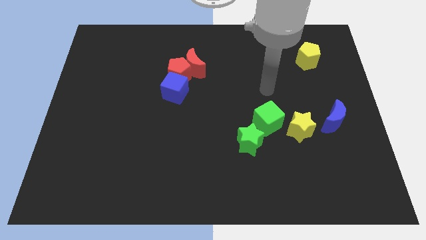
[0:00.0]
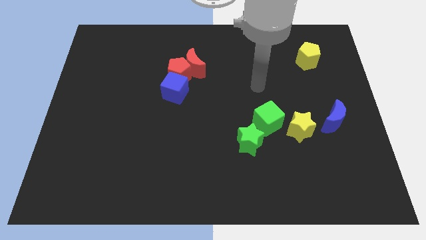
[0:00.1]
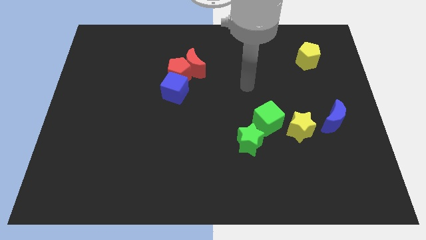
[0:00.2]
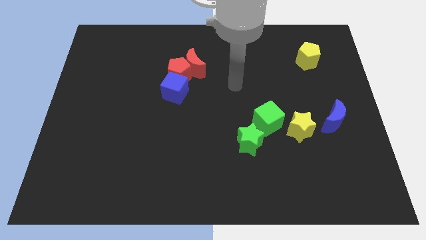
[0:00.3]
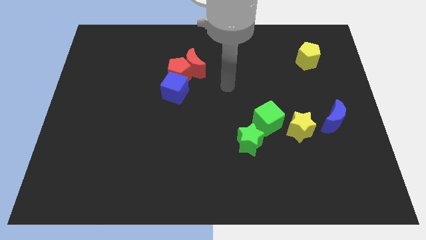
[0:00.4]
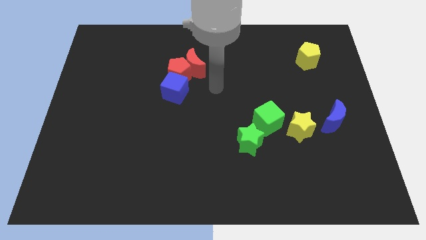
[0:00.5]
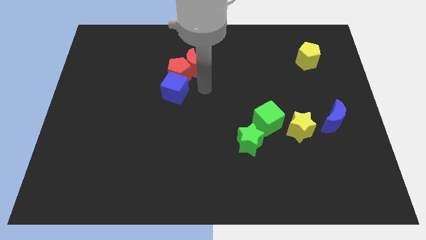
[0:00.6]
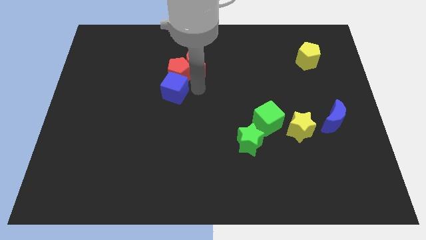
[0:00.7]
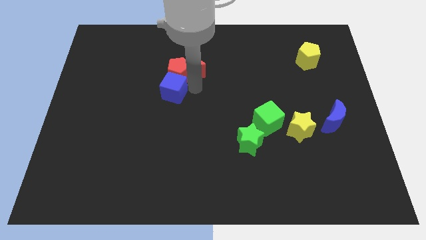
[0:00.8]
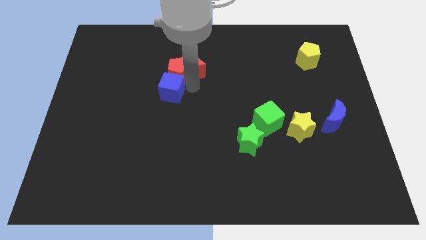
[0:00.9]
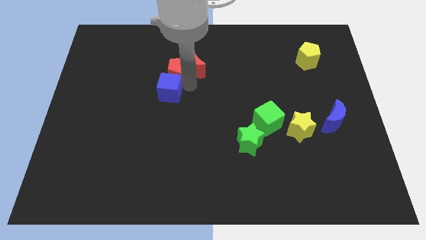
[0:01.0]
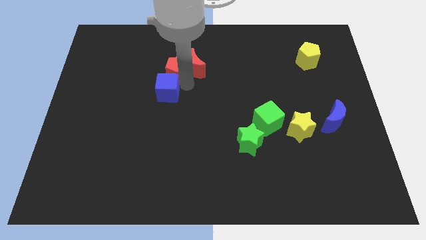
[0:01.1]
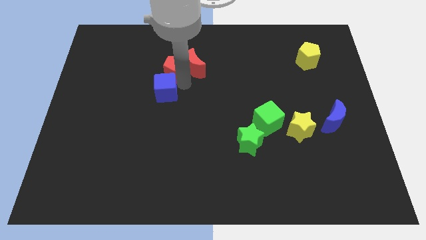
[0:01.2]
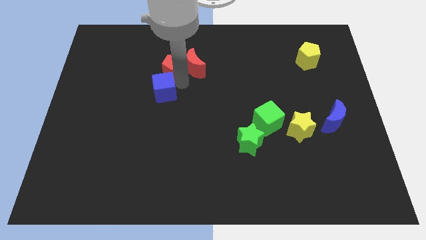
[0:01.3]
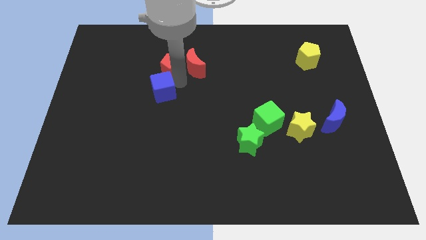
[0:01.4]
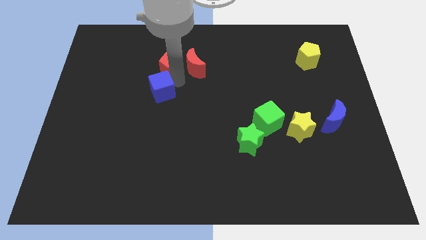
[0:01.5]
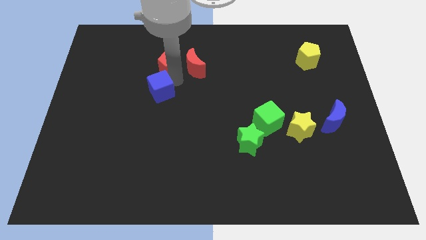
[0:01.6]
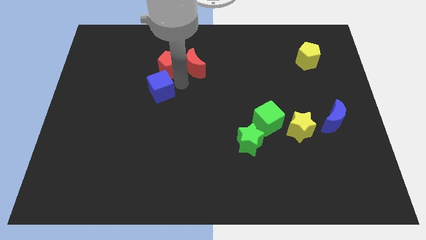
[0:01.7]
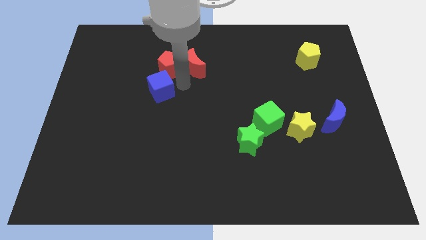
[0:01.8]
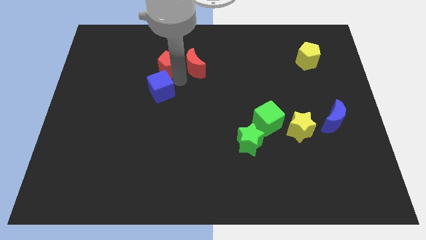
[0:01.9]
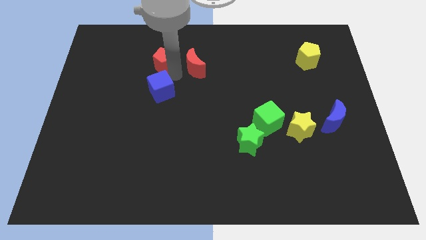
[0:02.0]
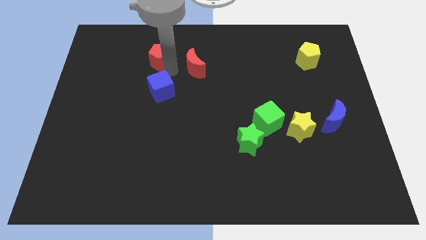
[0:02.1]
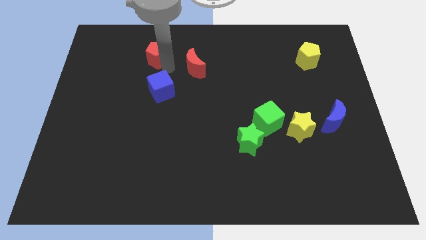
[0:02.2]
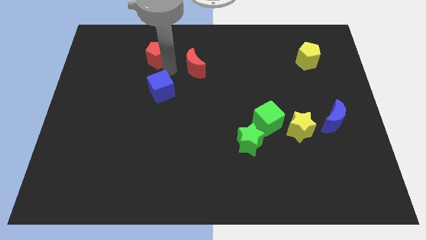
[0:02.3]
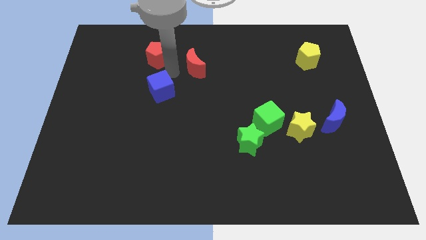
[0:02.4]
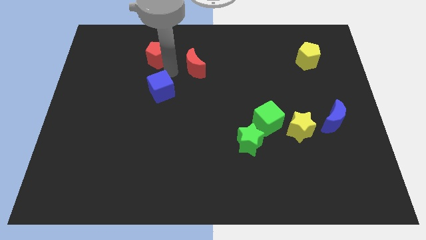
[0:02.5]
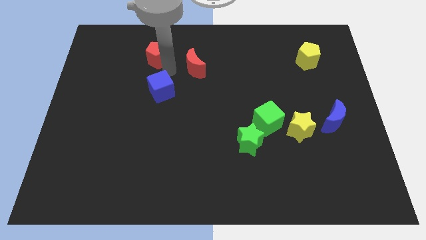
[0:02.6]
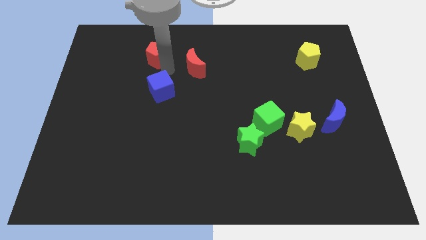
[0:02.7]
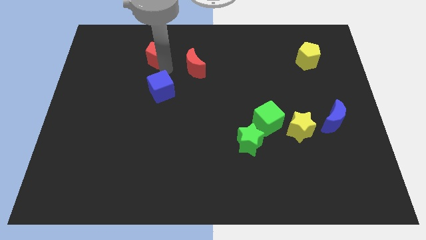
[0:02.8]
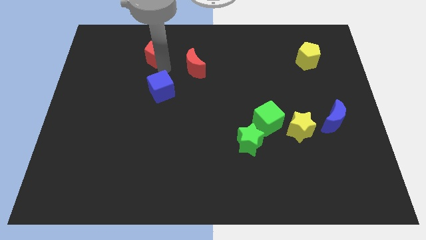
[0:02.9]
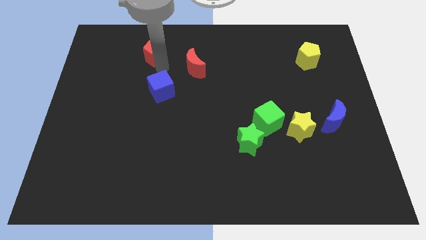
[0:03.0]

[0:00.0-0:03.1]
move the red pentagon away from the red moon and blue cube

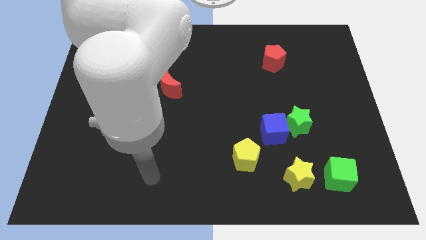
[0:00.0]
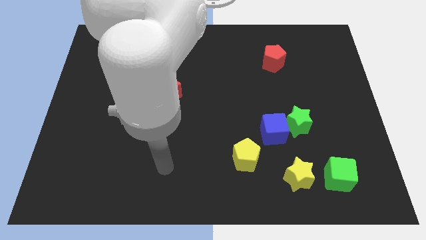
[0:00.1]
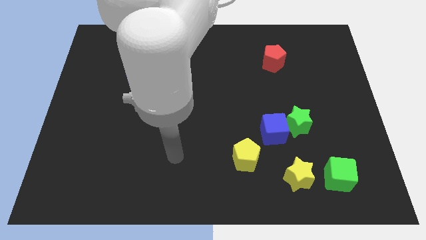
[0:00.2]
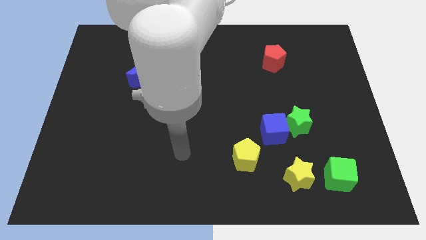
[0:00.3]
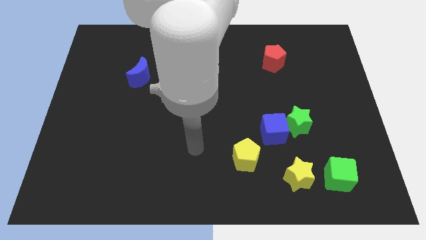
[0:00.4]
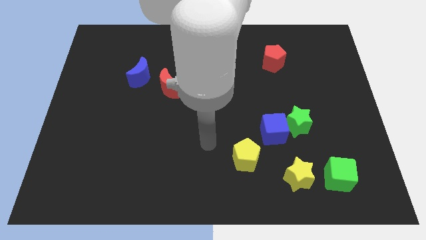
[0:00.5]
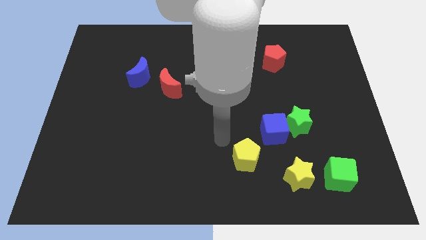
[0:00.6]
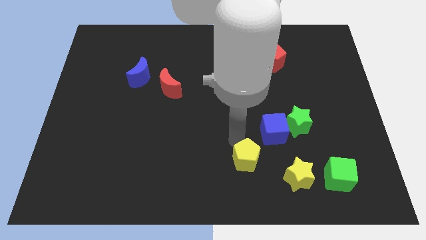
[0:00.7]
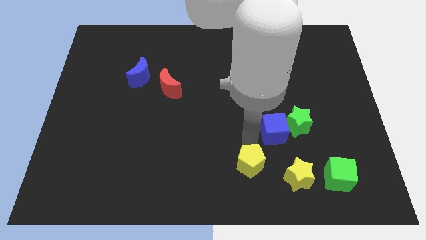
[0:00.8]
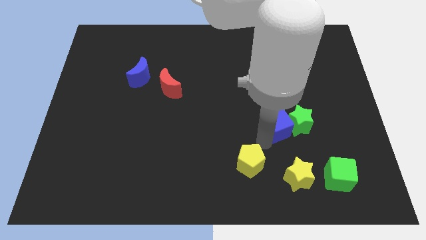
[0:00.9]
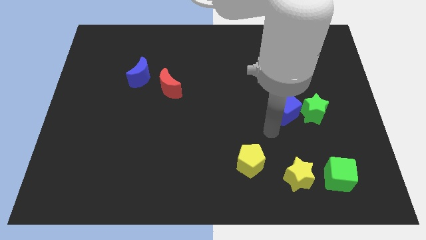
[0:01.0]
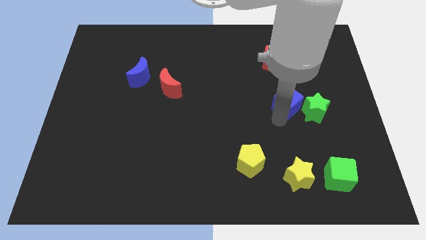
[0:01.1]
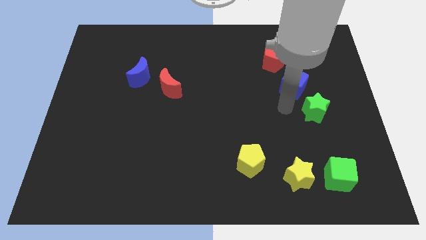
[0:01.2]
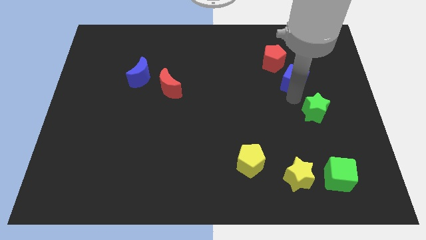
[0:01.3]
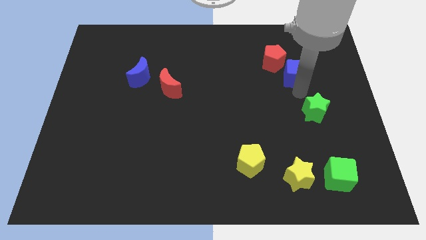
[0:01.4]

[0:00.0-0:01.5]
separate the green star from the blue cube

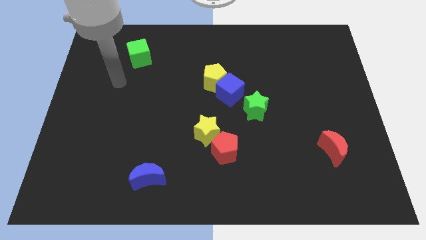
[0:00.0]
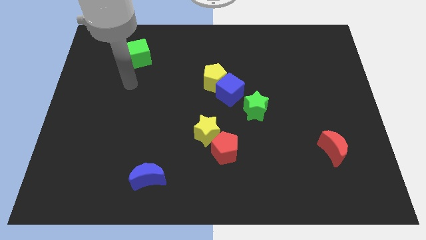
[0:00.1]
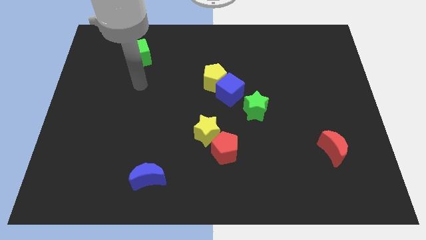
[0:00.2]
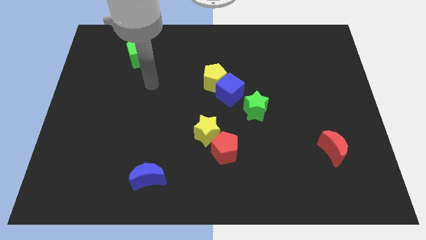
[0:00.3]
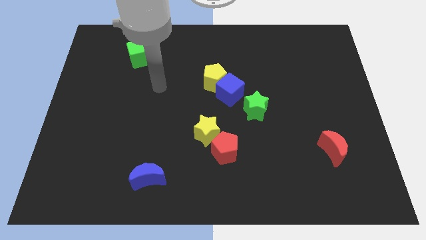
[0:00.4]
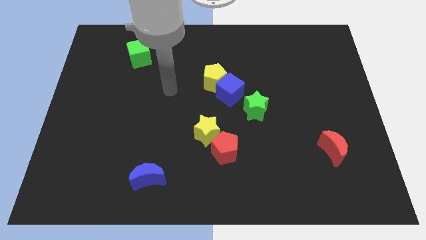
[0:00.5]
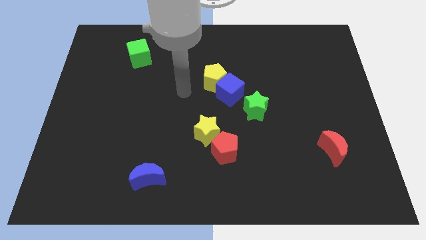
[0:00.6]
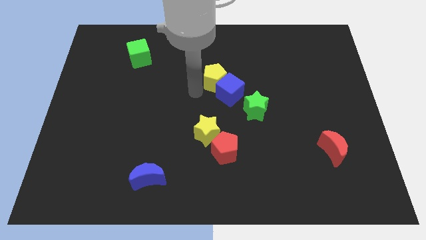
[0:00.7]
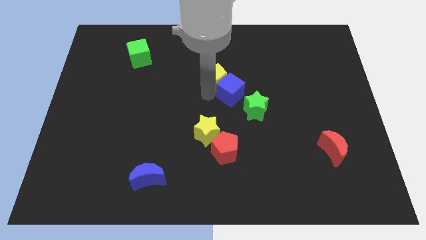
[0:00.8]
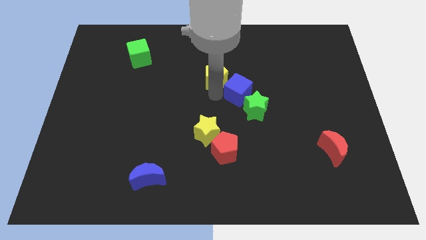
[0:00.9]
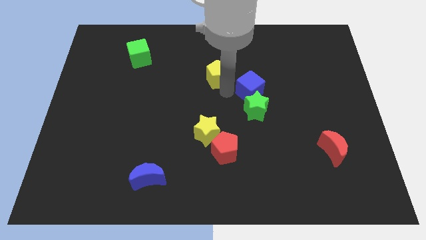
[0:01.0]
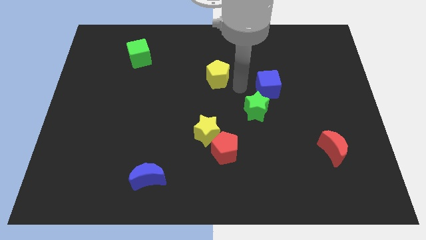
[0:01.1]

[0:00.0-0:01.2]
pull the yellow pentagon apart from the blue cube

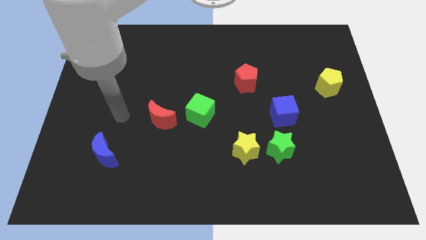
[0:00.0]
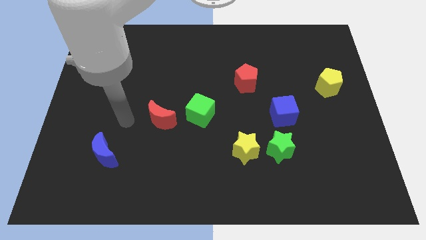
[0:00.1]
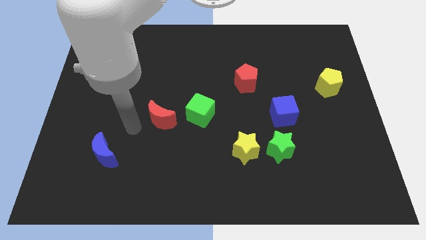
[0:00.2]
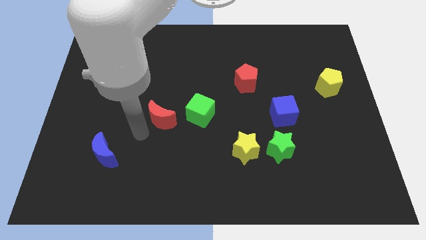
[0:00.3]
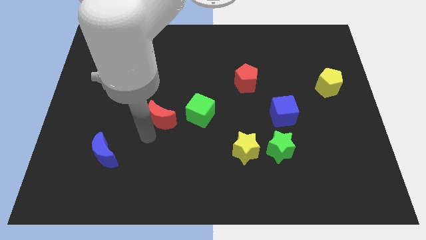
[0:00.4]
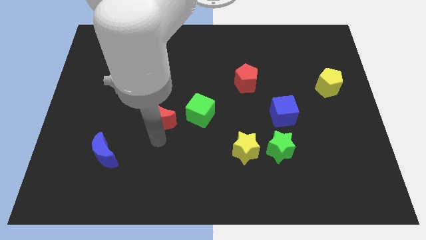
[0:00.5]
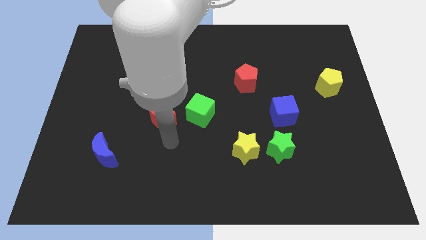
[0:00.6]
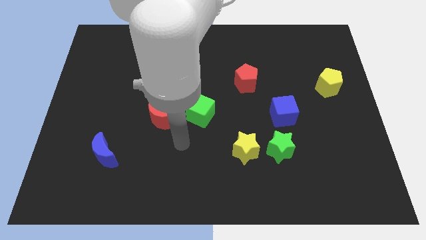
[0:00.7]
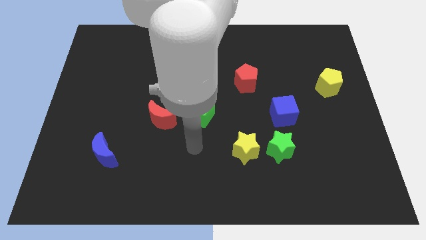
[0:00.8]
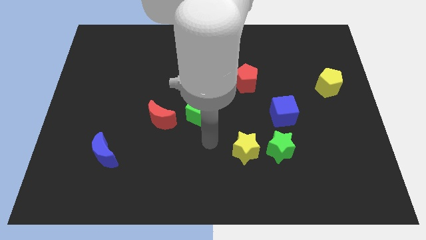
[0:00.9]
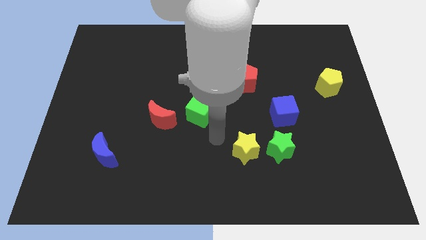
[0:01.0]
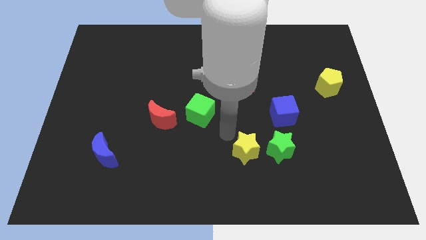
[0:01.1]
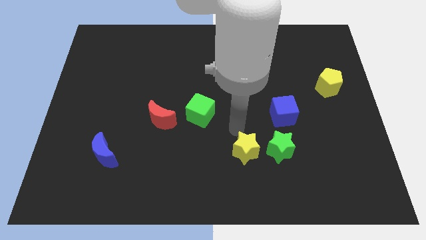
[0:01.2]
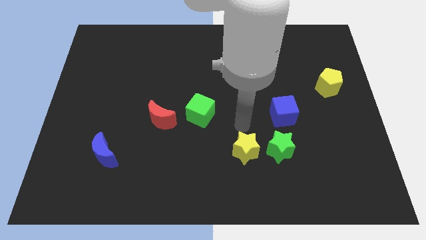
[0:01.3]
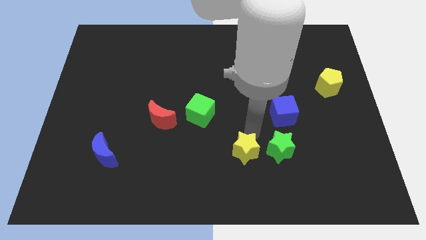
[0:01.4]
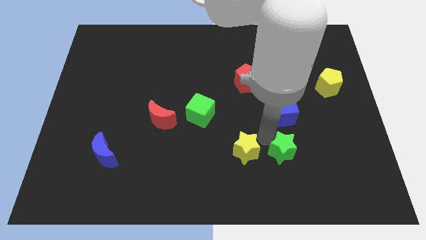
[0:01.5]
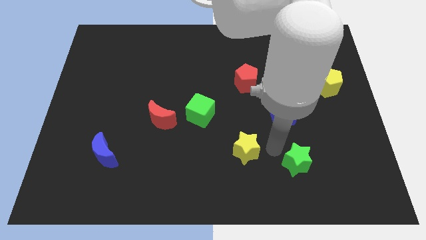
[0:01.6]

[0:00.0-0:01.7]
separate the yellow star from the green star

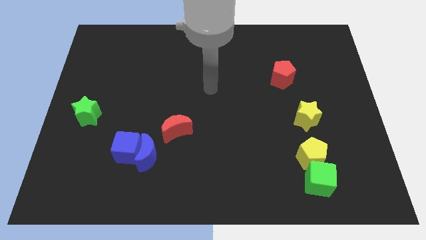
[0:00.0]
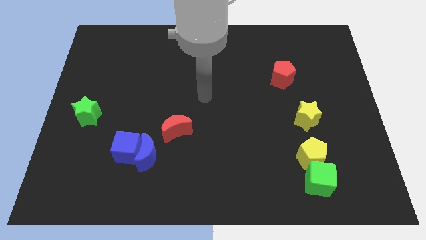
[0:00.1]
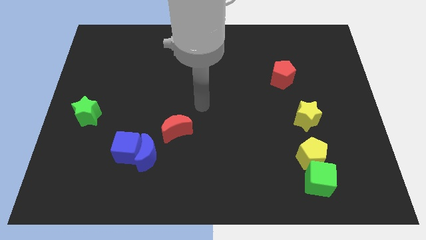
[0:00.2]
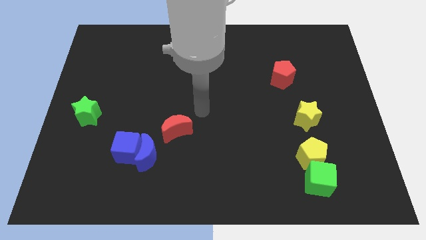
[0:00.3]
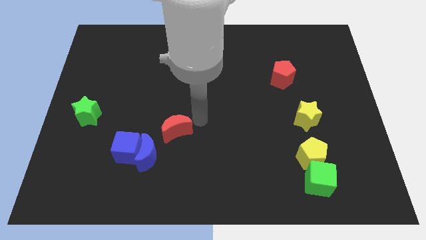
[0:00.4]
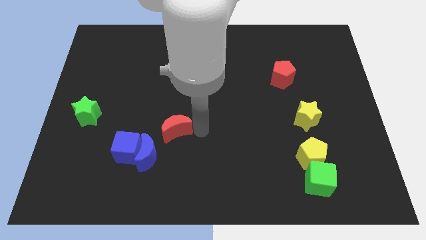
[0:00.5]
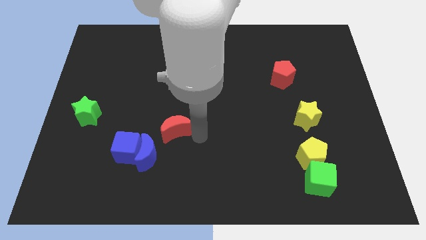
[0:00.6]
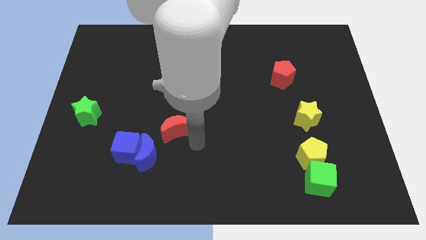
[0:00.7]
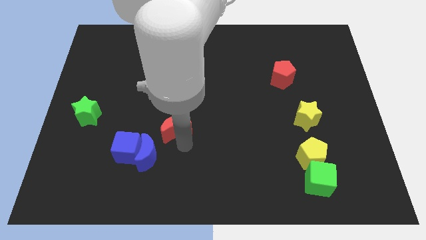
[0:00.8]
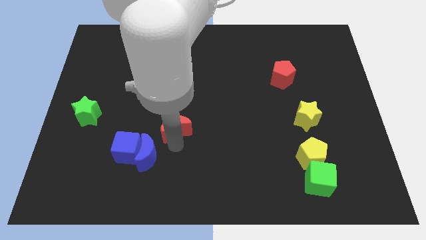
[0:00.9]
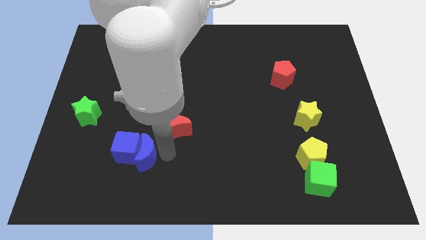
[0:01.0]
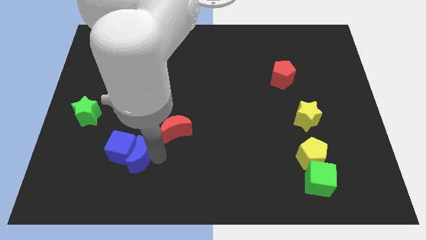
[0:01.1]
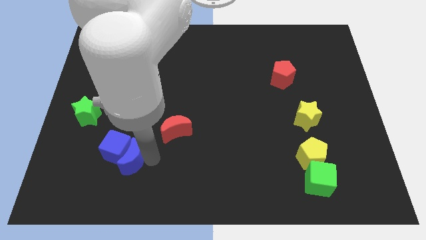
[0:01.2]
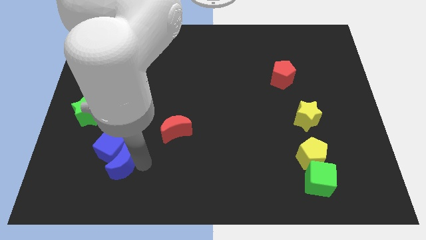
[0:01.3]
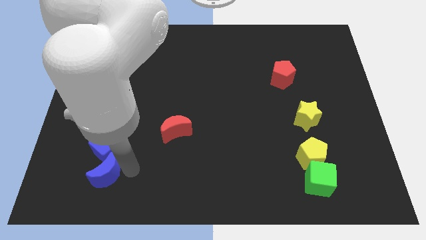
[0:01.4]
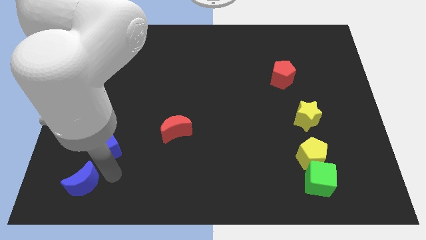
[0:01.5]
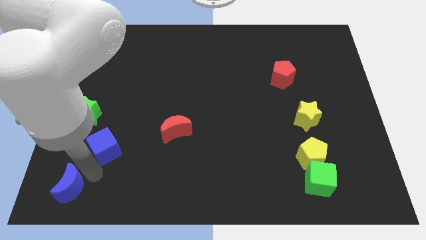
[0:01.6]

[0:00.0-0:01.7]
pull the blue cube apart from the blue moon
